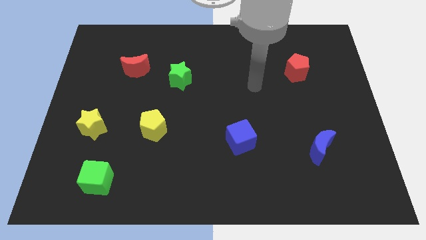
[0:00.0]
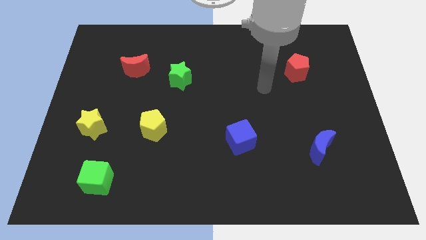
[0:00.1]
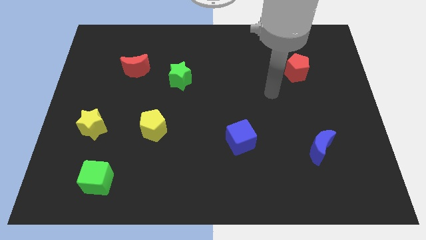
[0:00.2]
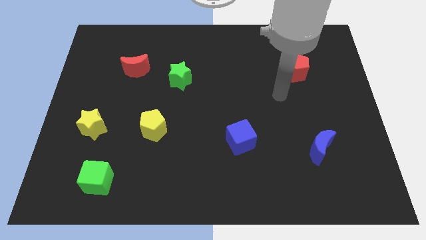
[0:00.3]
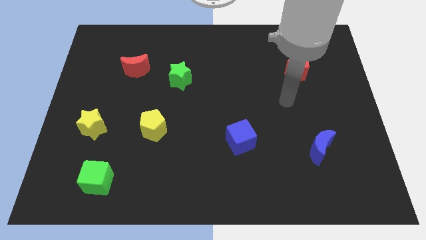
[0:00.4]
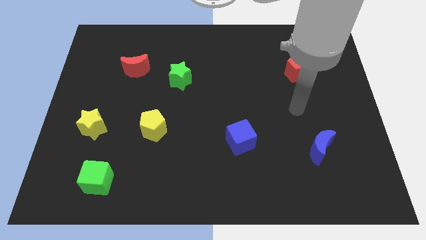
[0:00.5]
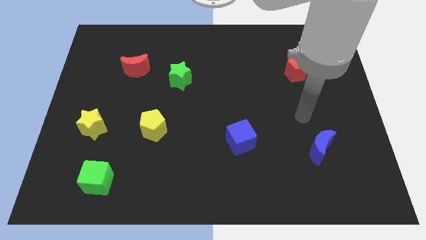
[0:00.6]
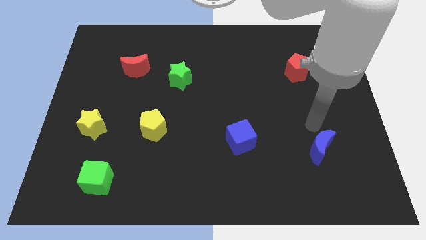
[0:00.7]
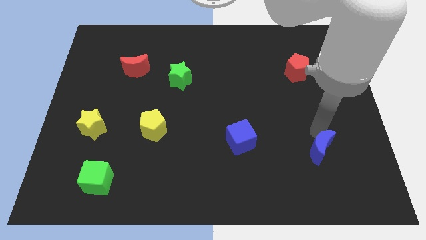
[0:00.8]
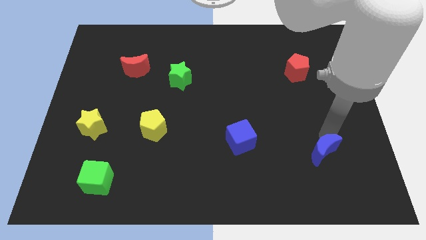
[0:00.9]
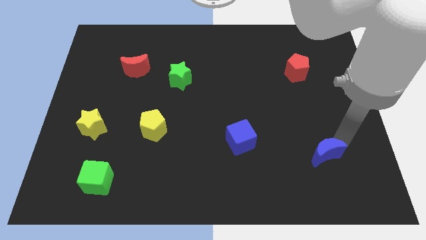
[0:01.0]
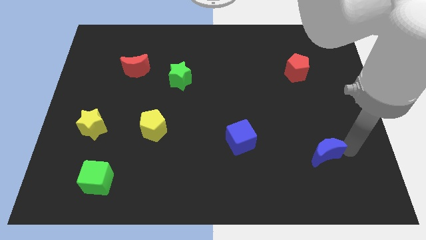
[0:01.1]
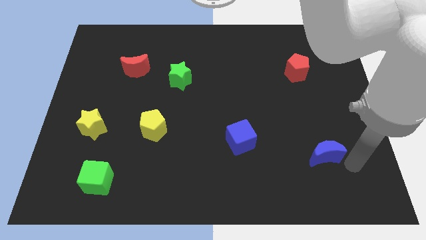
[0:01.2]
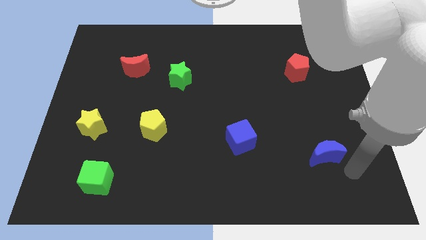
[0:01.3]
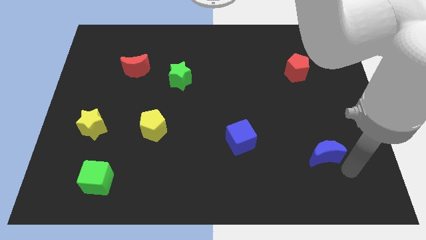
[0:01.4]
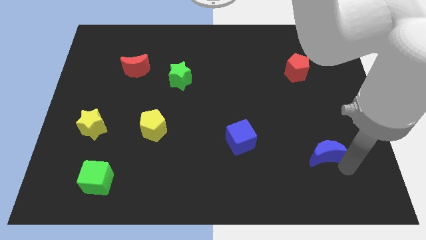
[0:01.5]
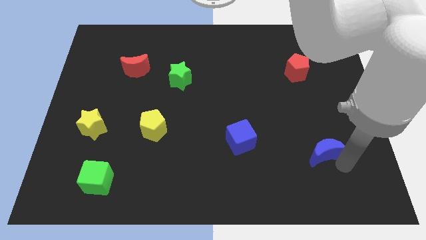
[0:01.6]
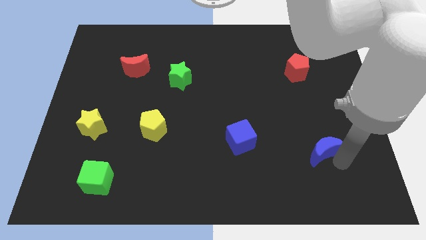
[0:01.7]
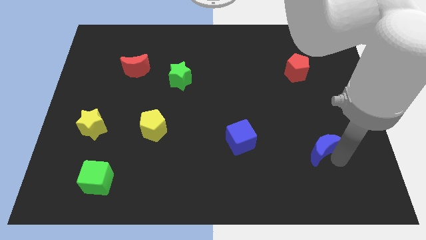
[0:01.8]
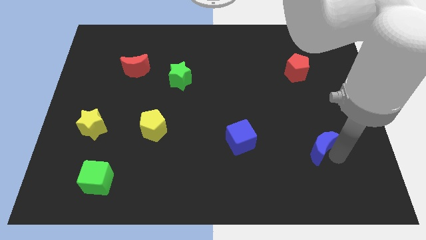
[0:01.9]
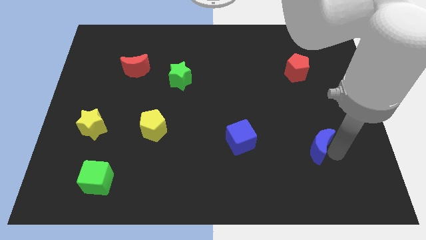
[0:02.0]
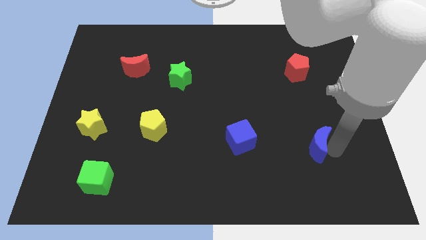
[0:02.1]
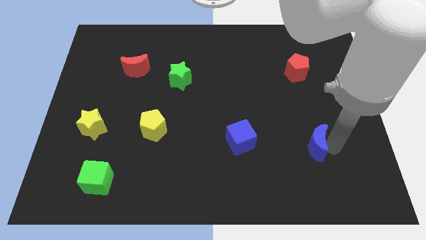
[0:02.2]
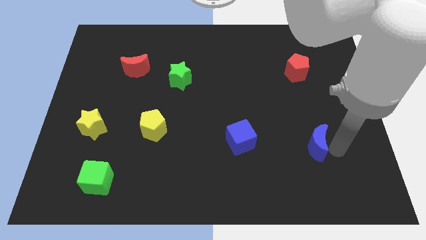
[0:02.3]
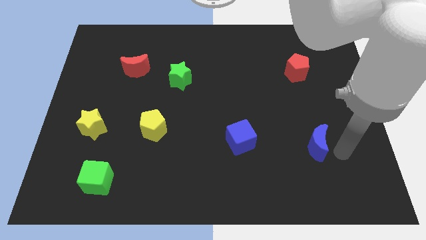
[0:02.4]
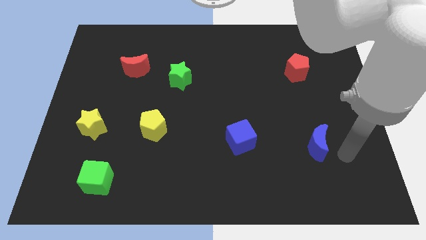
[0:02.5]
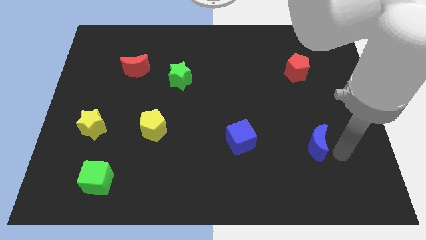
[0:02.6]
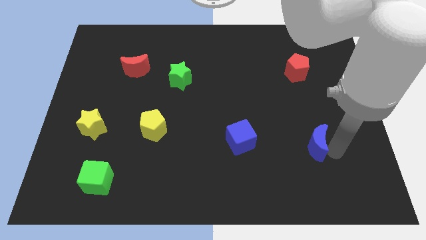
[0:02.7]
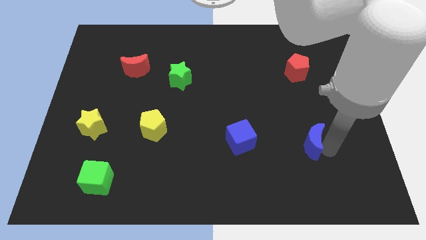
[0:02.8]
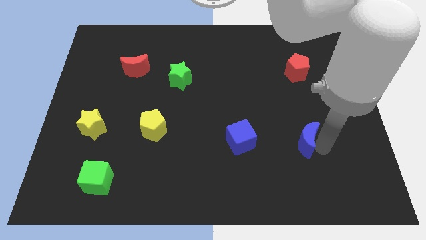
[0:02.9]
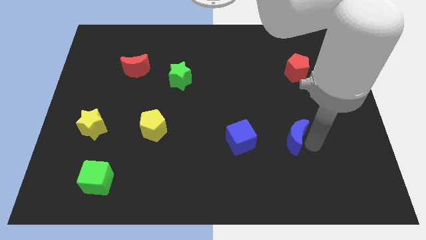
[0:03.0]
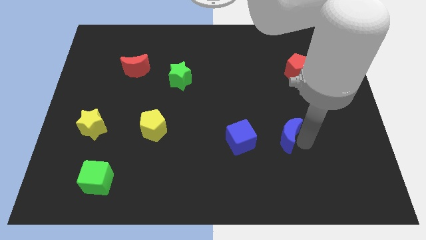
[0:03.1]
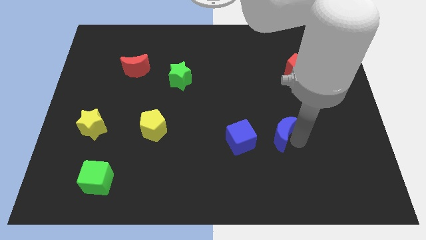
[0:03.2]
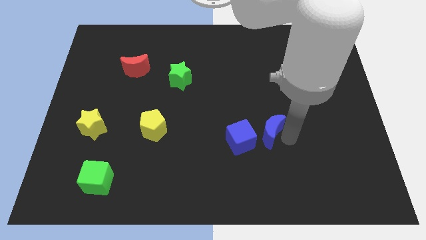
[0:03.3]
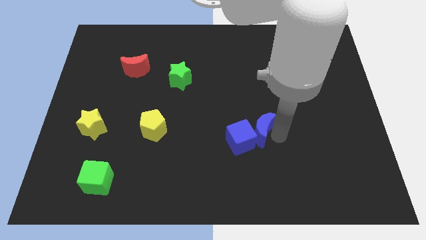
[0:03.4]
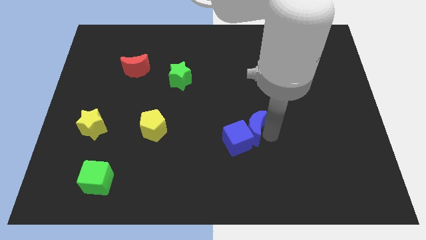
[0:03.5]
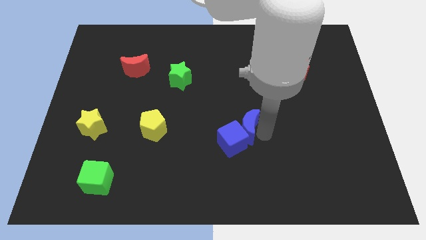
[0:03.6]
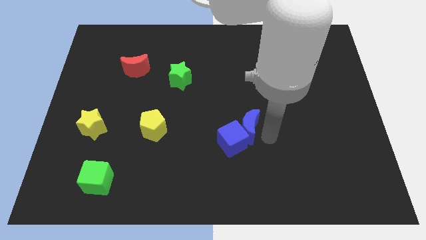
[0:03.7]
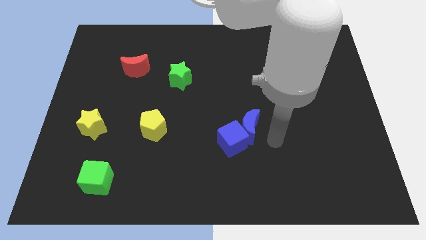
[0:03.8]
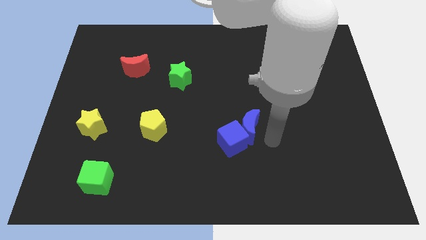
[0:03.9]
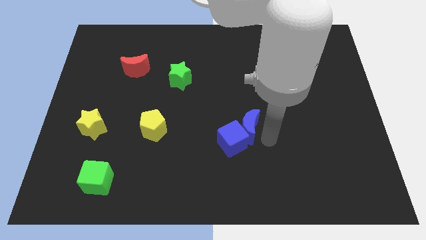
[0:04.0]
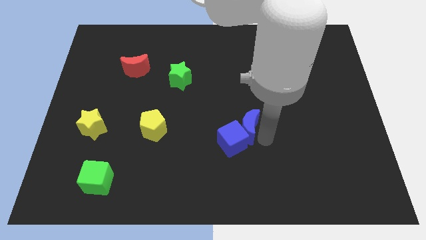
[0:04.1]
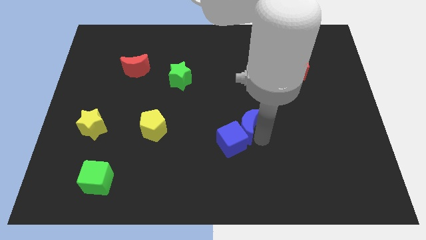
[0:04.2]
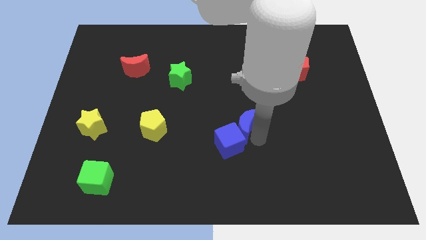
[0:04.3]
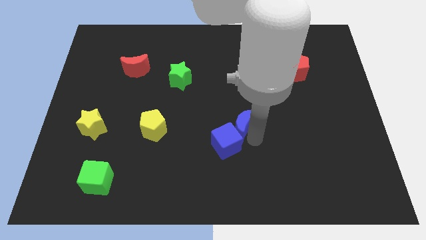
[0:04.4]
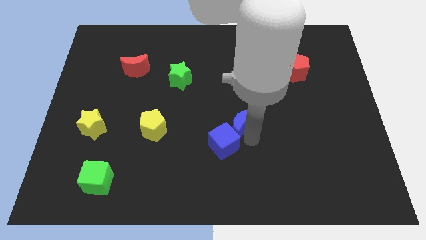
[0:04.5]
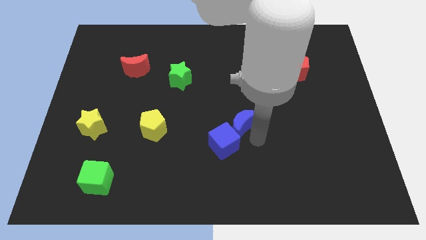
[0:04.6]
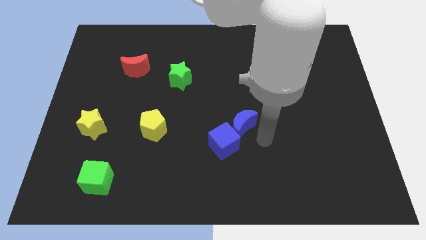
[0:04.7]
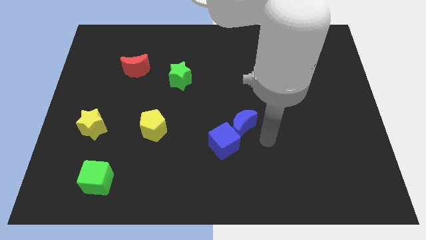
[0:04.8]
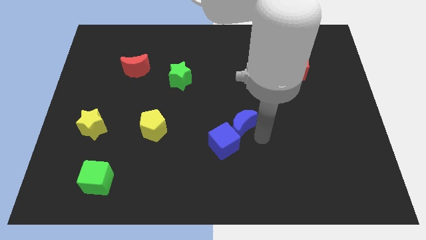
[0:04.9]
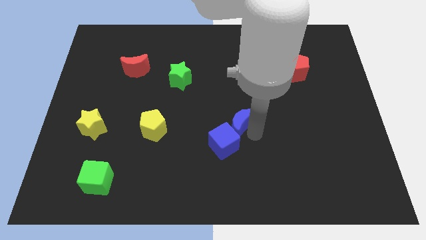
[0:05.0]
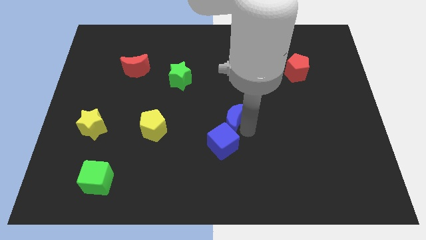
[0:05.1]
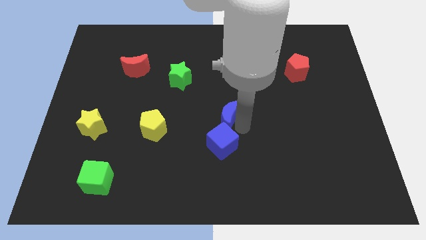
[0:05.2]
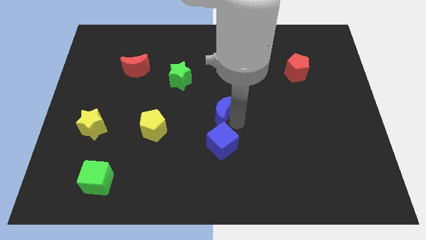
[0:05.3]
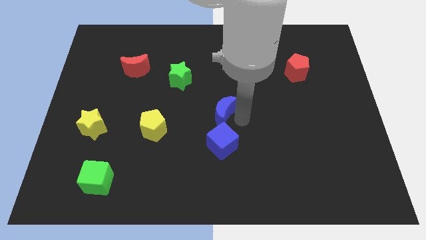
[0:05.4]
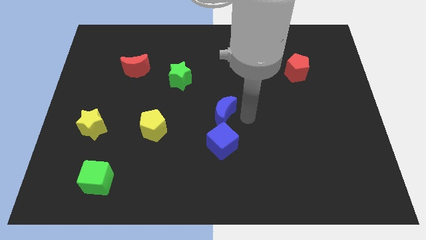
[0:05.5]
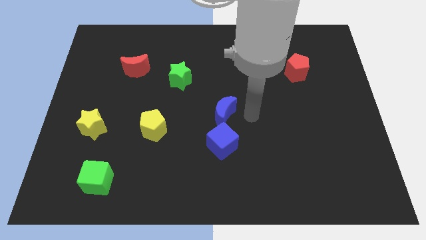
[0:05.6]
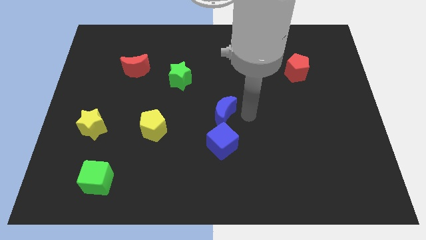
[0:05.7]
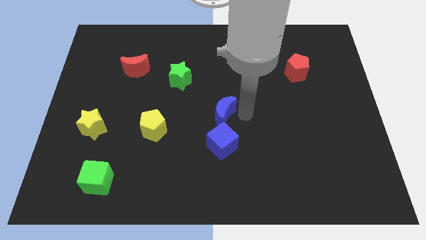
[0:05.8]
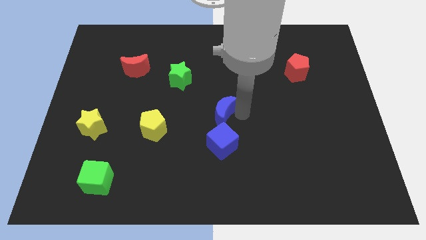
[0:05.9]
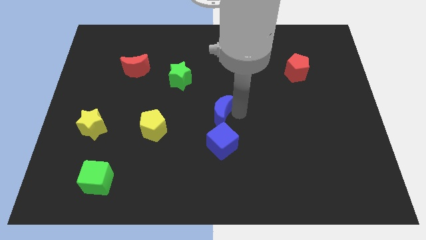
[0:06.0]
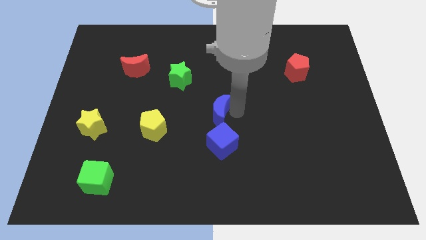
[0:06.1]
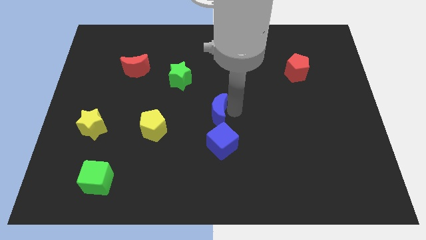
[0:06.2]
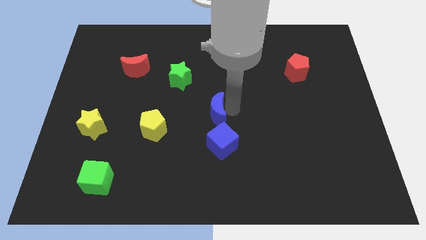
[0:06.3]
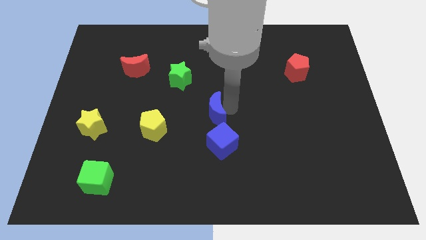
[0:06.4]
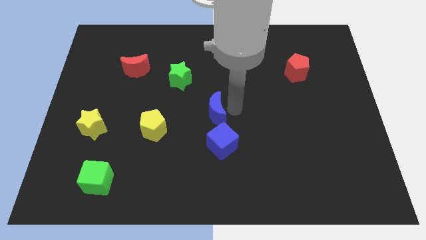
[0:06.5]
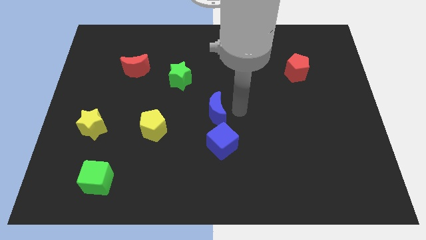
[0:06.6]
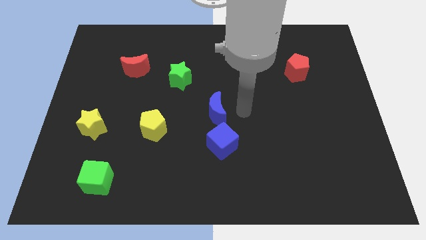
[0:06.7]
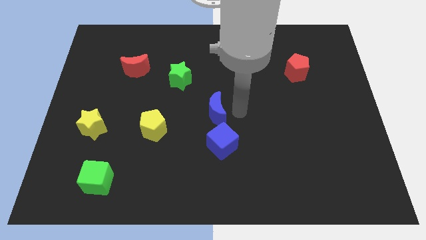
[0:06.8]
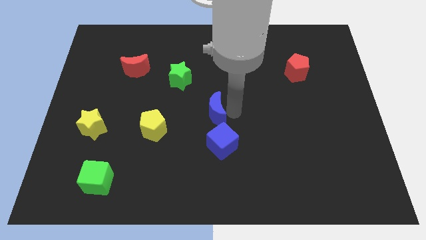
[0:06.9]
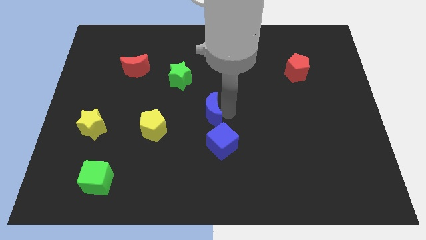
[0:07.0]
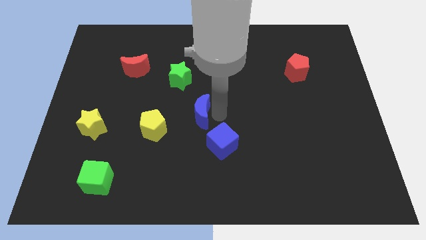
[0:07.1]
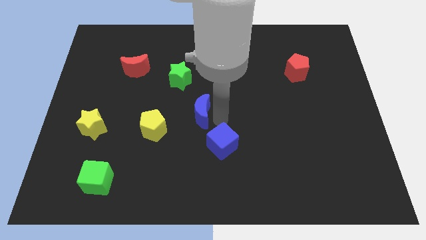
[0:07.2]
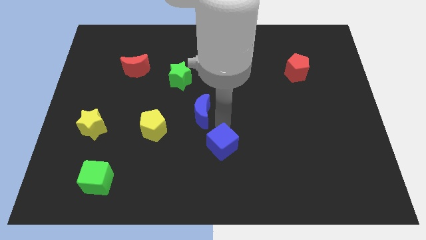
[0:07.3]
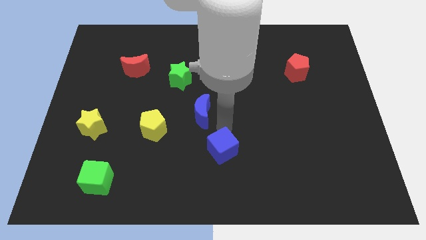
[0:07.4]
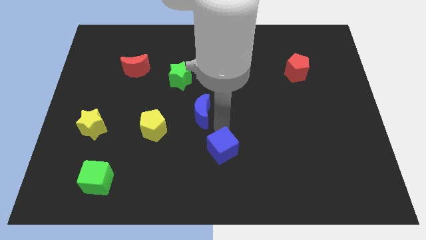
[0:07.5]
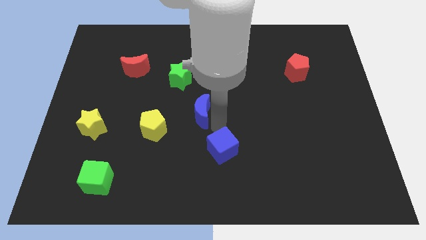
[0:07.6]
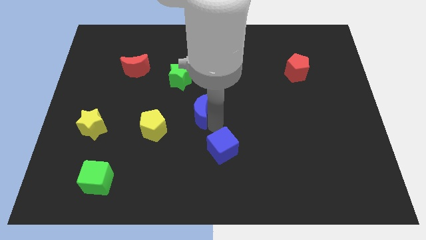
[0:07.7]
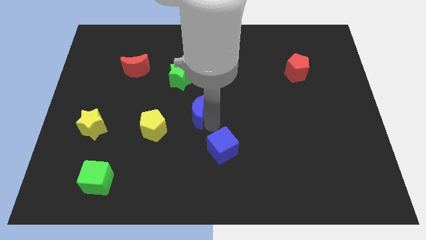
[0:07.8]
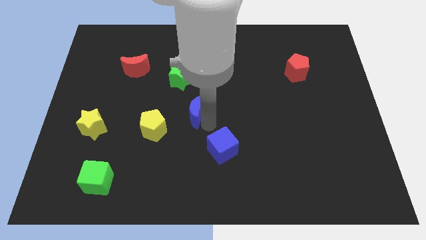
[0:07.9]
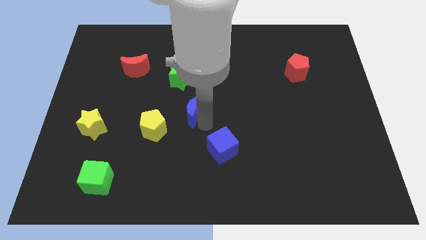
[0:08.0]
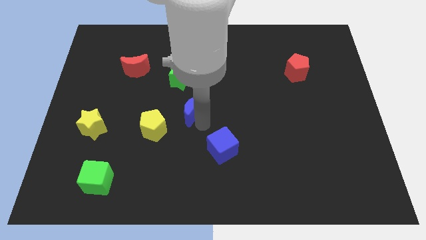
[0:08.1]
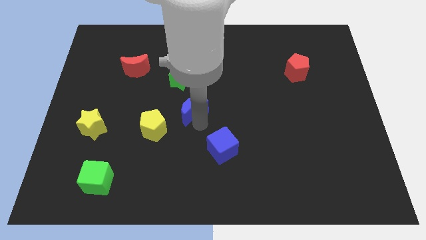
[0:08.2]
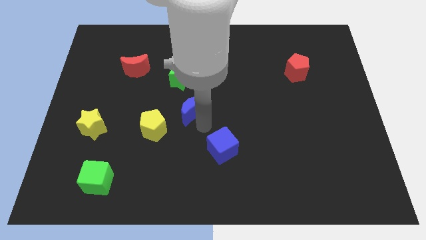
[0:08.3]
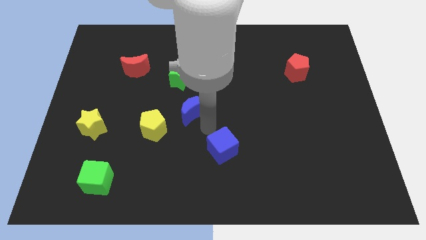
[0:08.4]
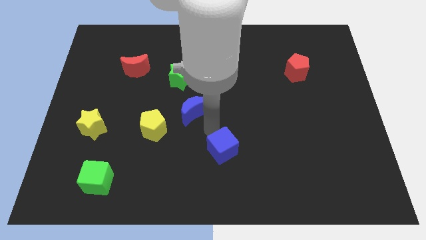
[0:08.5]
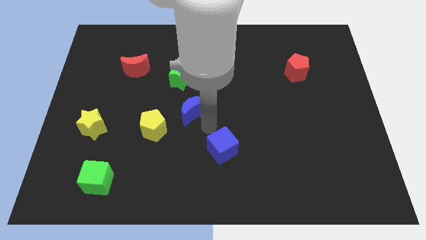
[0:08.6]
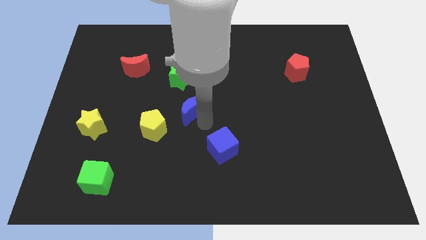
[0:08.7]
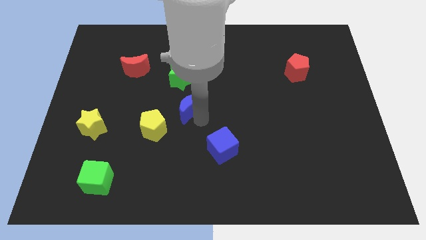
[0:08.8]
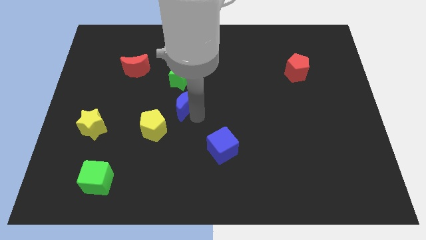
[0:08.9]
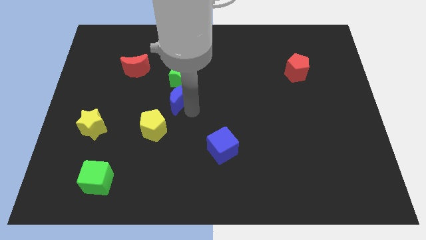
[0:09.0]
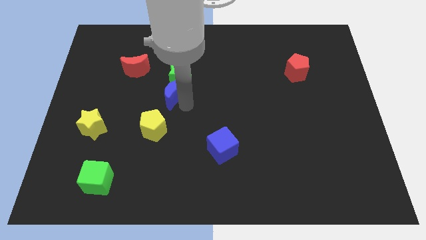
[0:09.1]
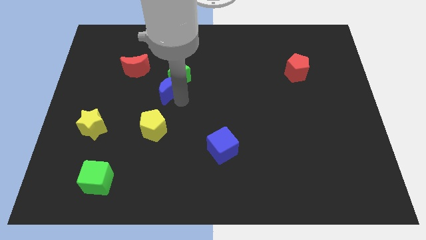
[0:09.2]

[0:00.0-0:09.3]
put the blue moon to the bottom right of the red moon
